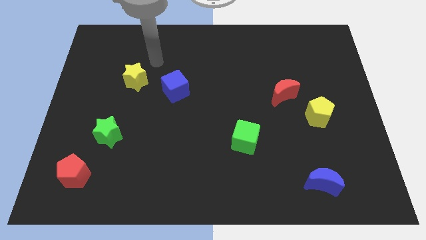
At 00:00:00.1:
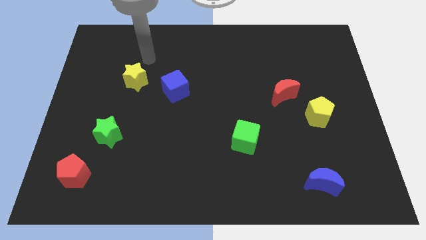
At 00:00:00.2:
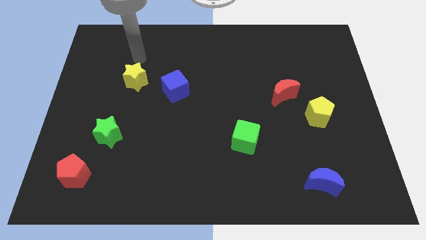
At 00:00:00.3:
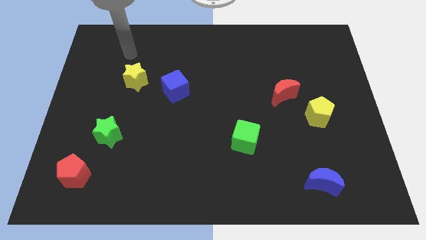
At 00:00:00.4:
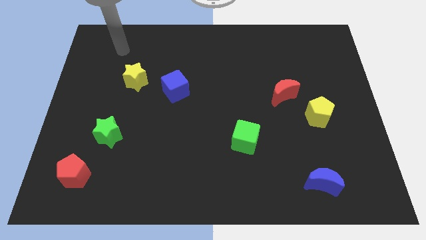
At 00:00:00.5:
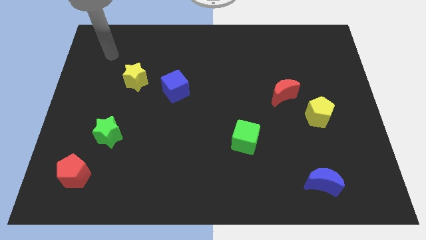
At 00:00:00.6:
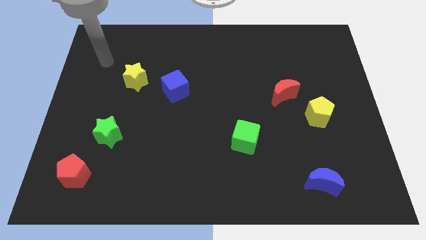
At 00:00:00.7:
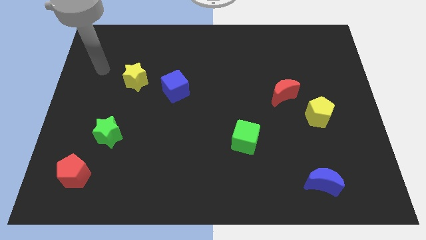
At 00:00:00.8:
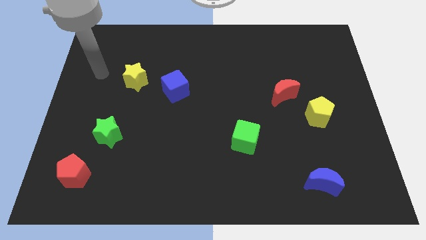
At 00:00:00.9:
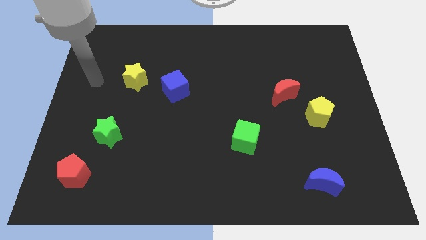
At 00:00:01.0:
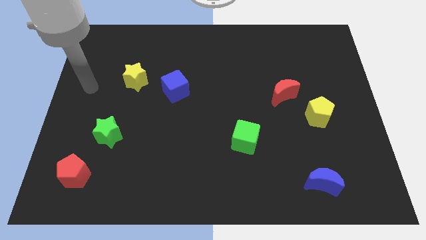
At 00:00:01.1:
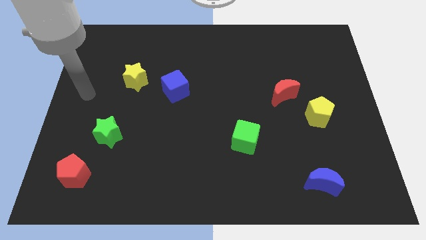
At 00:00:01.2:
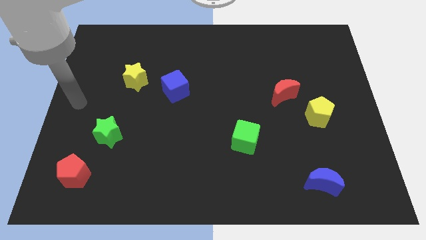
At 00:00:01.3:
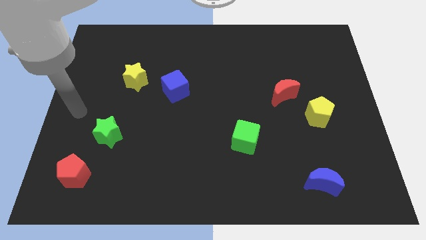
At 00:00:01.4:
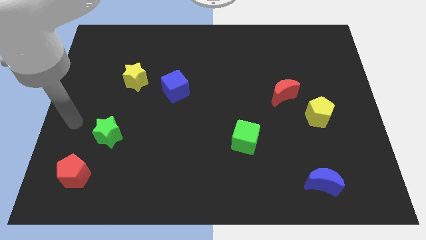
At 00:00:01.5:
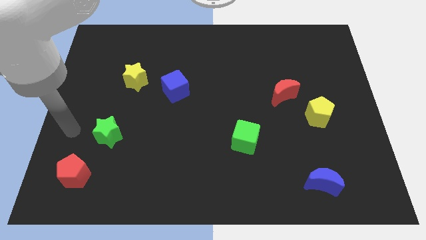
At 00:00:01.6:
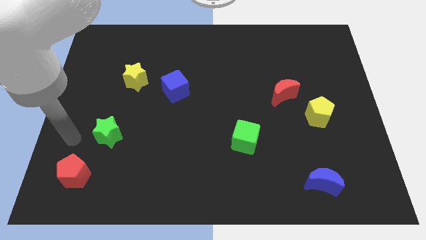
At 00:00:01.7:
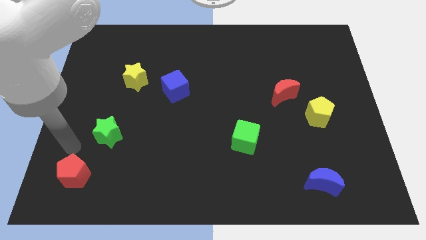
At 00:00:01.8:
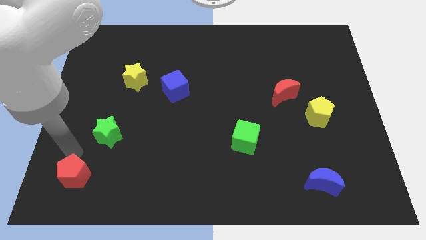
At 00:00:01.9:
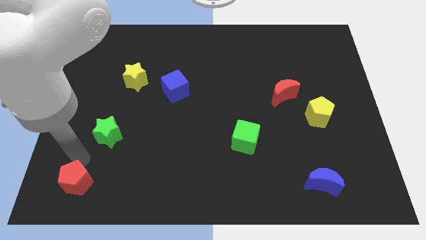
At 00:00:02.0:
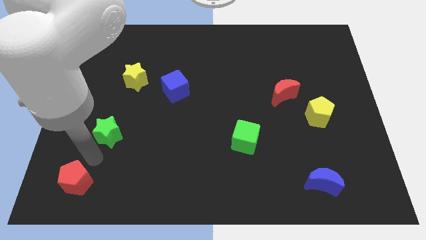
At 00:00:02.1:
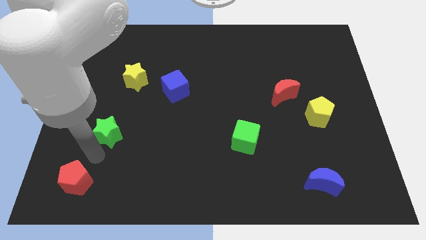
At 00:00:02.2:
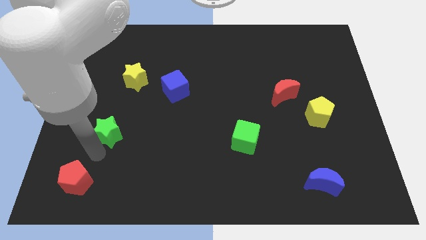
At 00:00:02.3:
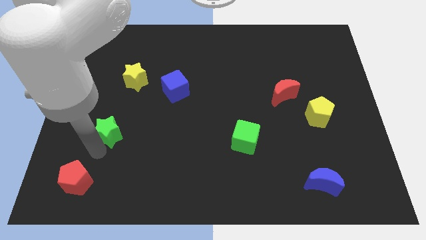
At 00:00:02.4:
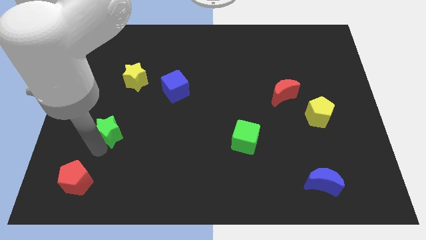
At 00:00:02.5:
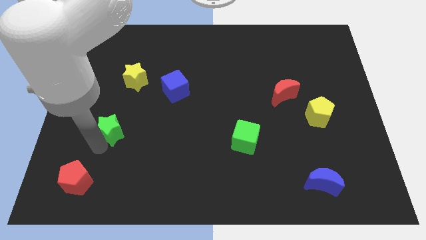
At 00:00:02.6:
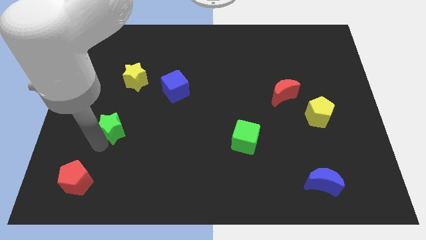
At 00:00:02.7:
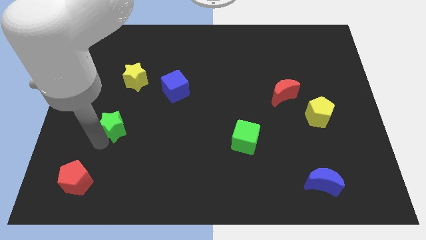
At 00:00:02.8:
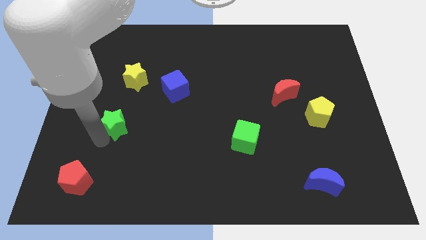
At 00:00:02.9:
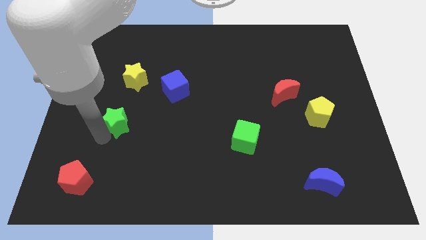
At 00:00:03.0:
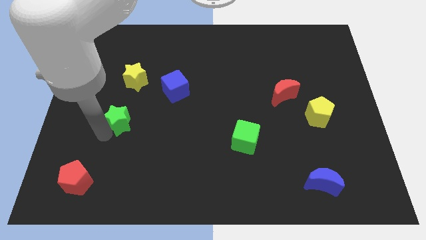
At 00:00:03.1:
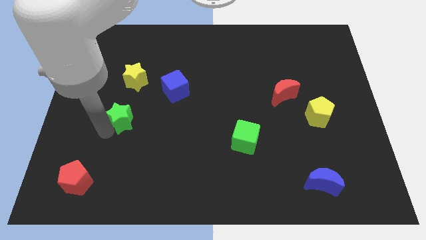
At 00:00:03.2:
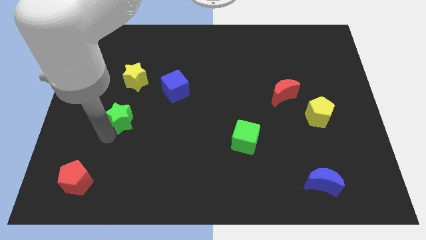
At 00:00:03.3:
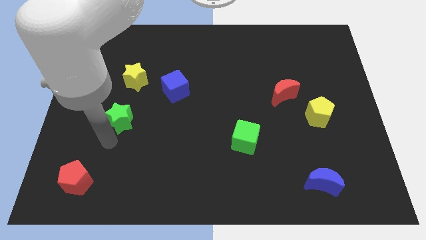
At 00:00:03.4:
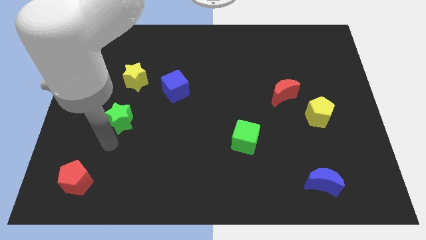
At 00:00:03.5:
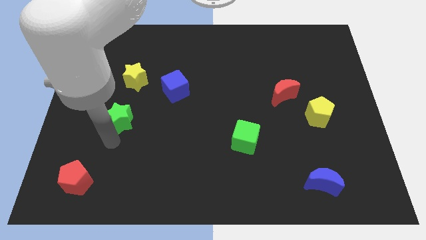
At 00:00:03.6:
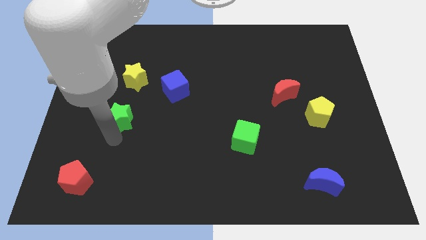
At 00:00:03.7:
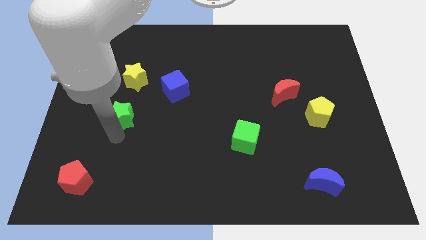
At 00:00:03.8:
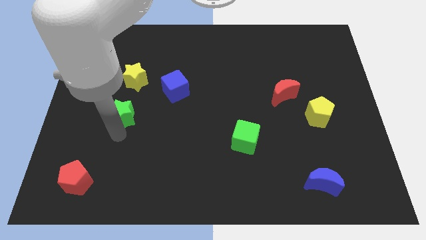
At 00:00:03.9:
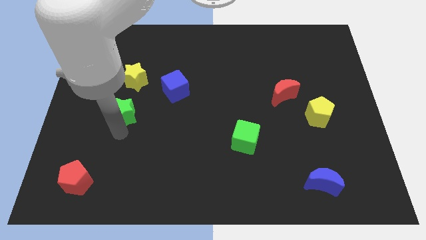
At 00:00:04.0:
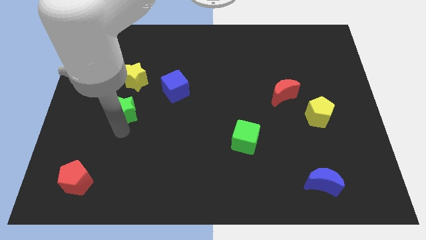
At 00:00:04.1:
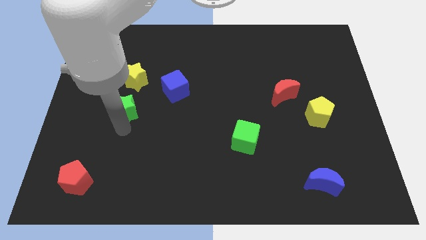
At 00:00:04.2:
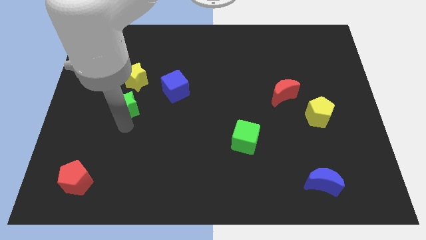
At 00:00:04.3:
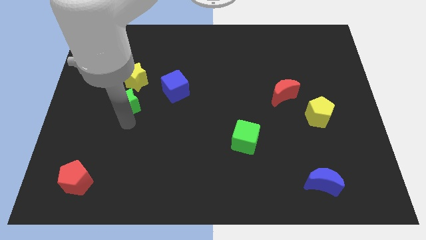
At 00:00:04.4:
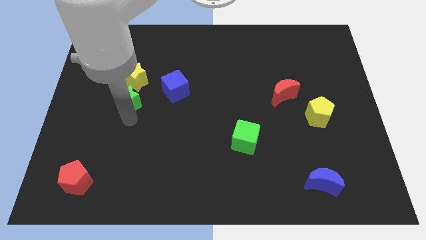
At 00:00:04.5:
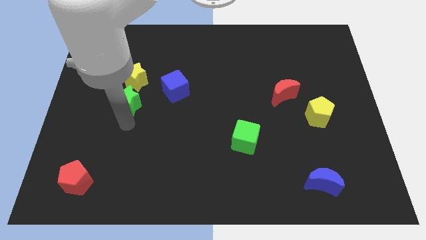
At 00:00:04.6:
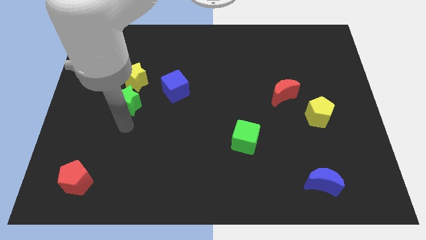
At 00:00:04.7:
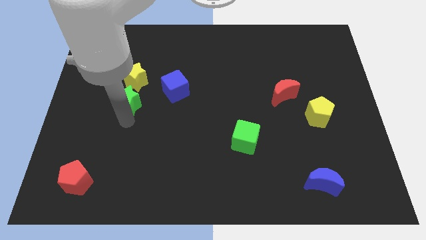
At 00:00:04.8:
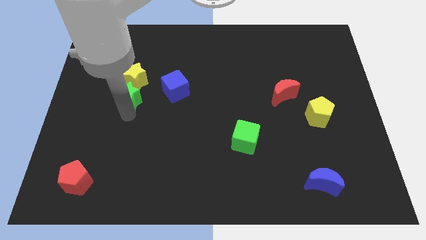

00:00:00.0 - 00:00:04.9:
put the green star towards the yellow star

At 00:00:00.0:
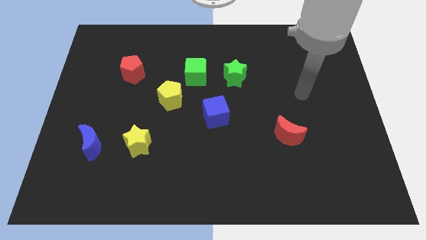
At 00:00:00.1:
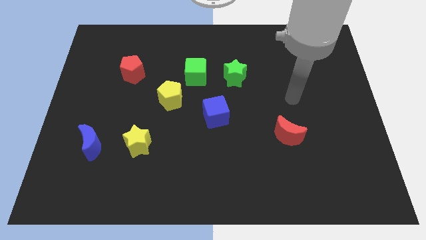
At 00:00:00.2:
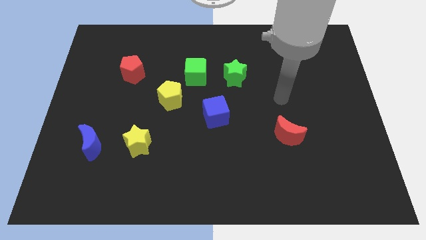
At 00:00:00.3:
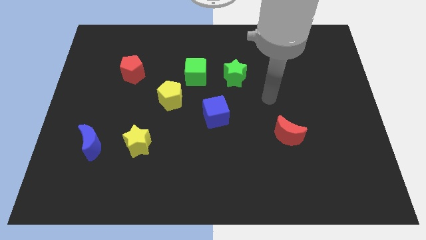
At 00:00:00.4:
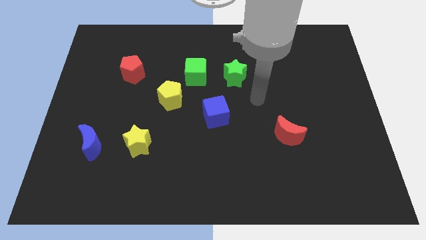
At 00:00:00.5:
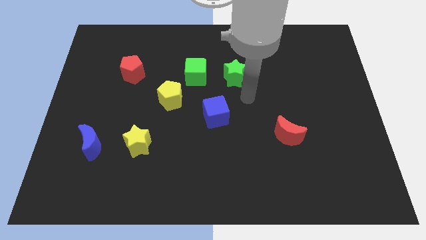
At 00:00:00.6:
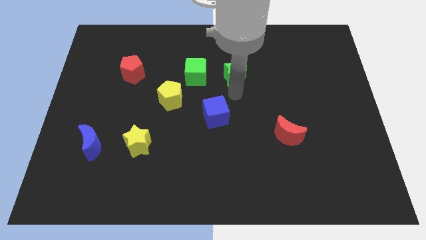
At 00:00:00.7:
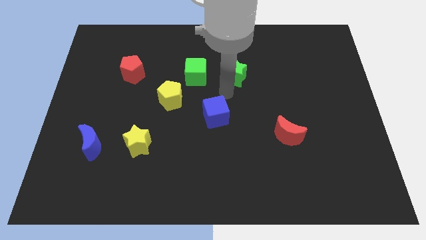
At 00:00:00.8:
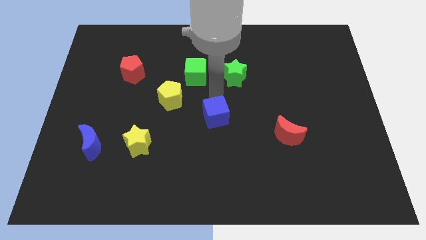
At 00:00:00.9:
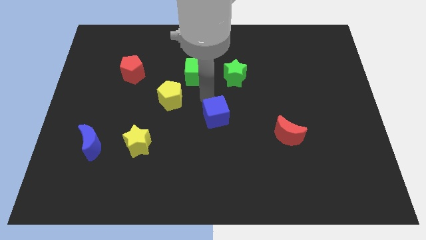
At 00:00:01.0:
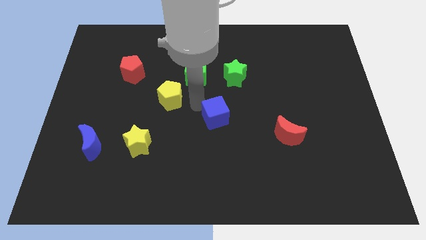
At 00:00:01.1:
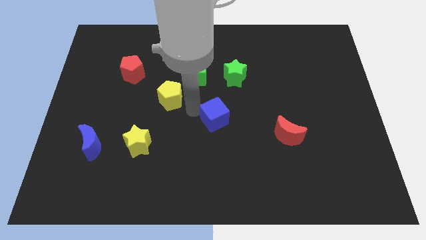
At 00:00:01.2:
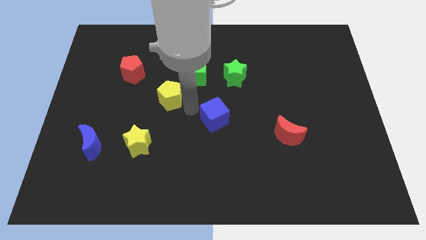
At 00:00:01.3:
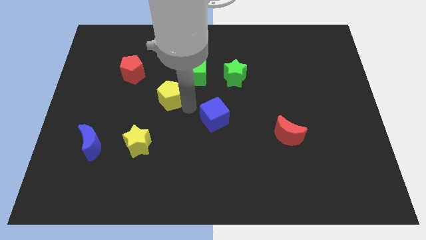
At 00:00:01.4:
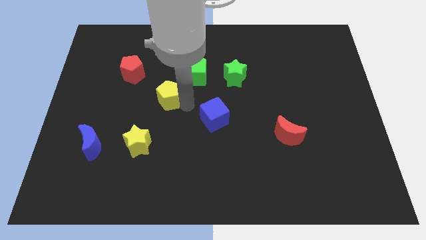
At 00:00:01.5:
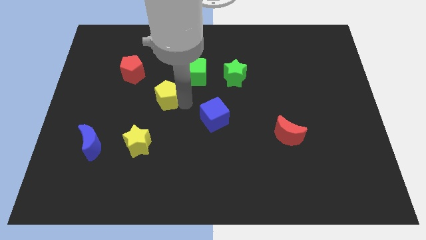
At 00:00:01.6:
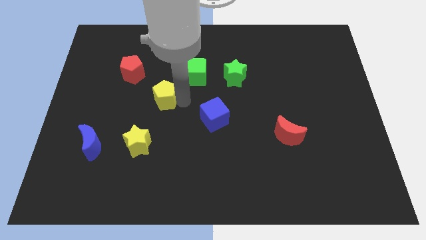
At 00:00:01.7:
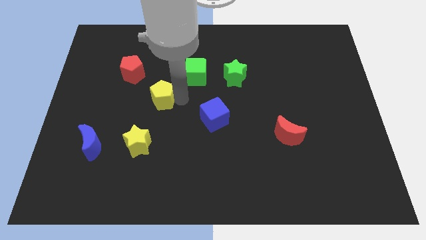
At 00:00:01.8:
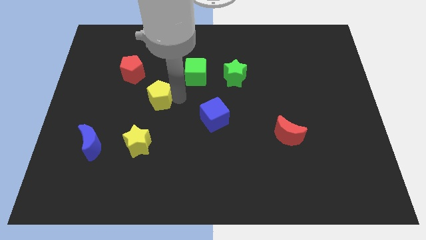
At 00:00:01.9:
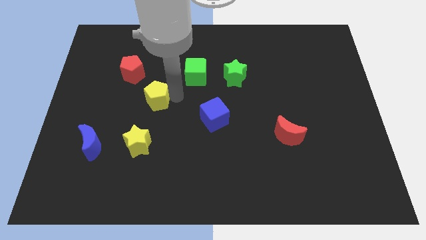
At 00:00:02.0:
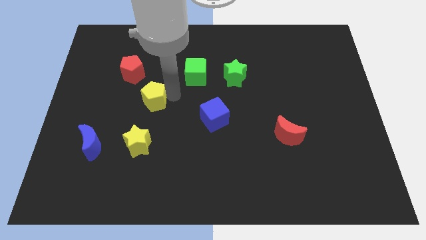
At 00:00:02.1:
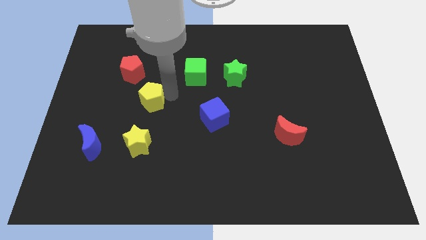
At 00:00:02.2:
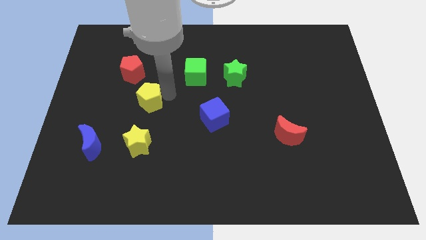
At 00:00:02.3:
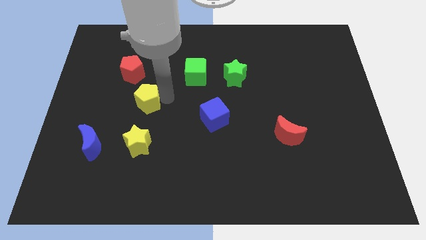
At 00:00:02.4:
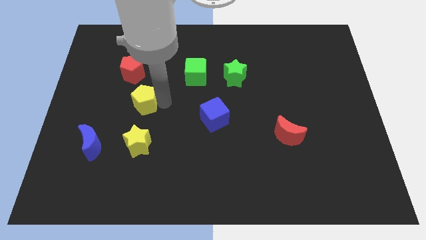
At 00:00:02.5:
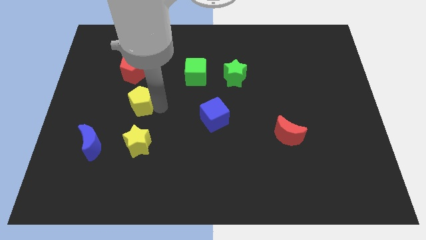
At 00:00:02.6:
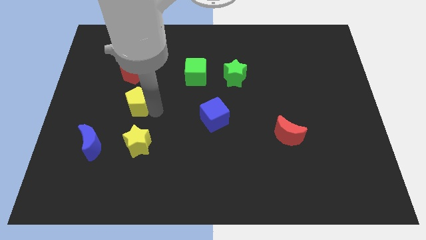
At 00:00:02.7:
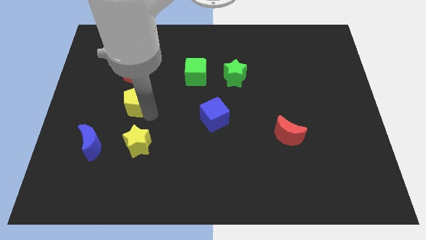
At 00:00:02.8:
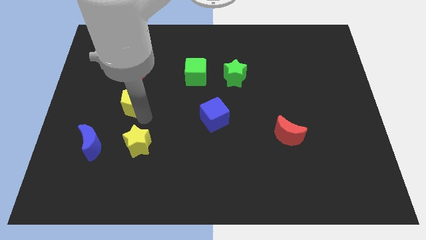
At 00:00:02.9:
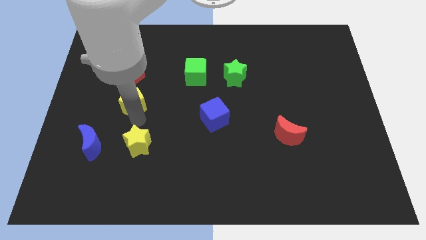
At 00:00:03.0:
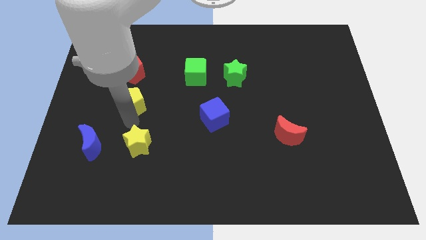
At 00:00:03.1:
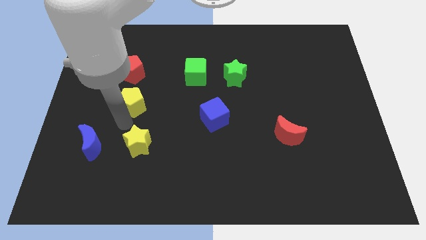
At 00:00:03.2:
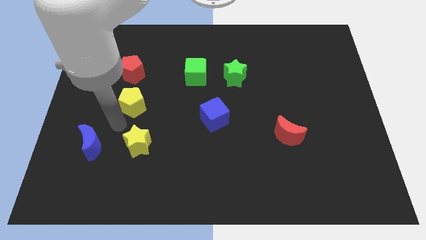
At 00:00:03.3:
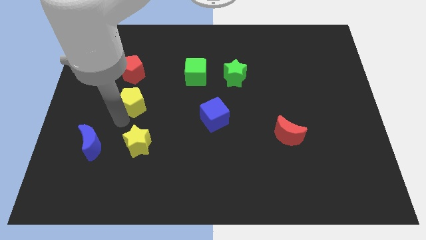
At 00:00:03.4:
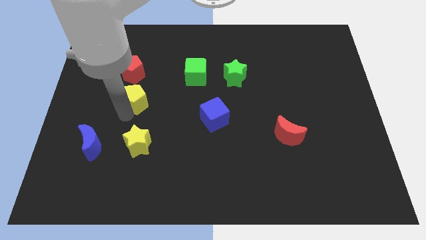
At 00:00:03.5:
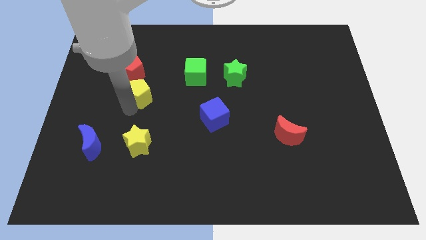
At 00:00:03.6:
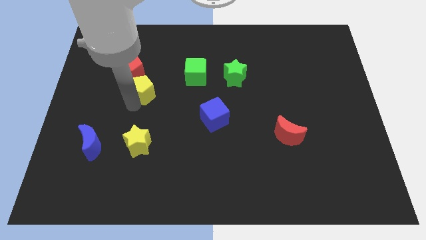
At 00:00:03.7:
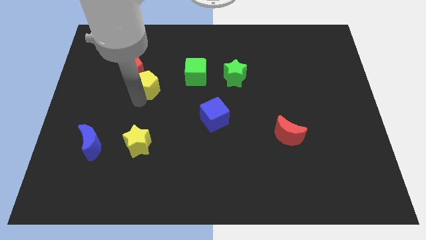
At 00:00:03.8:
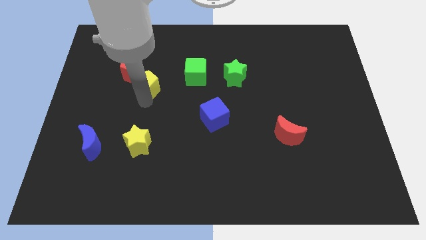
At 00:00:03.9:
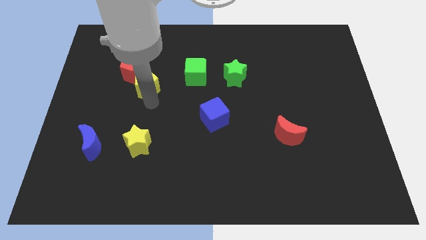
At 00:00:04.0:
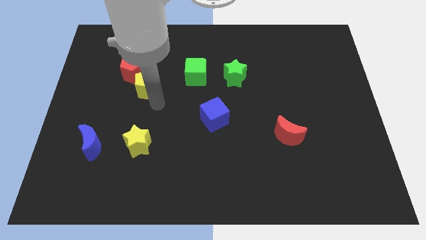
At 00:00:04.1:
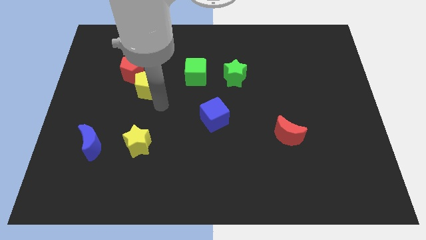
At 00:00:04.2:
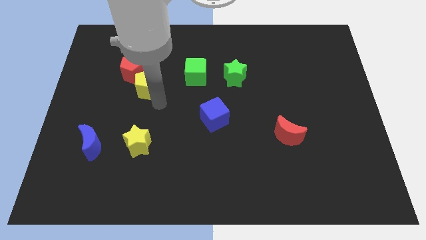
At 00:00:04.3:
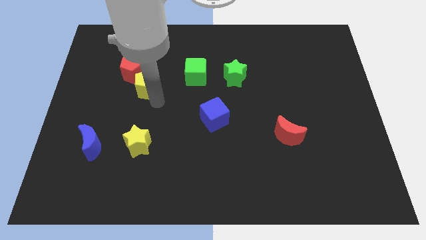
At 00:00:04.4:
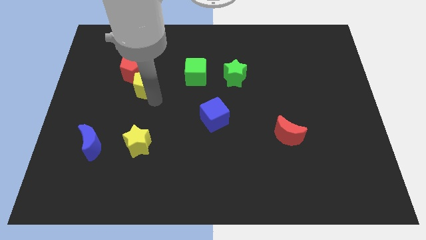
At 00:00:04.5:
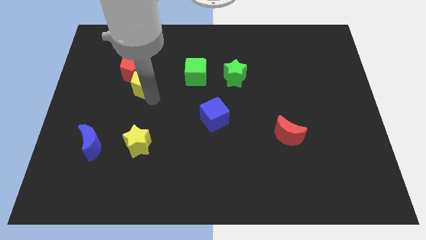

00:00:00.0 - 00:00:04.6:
slide the yellow pentagon close to the red pentagon
